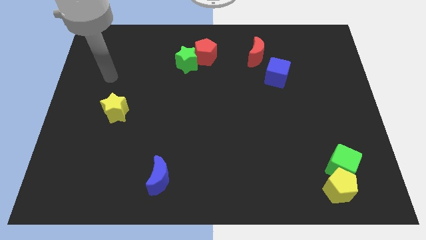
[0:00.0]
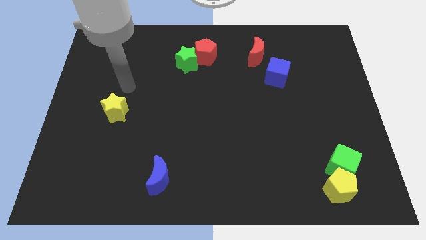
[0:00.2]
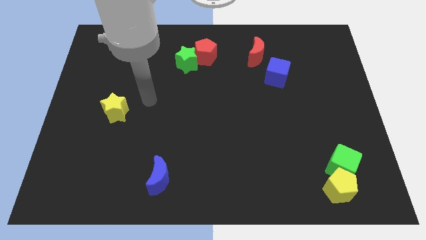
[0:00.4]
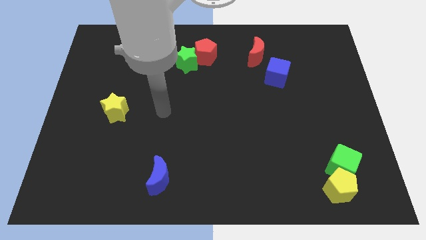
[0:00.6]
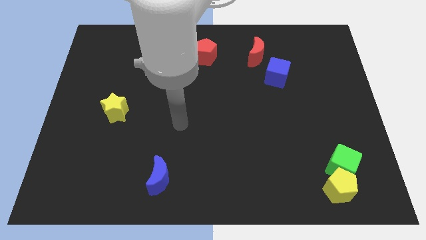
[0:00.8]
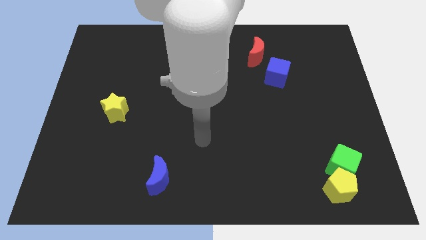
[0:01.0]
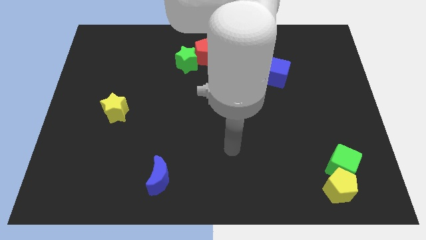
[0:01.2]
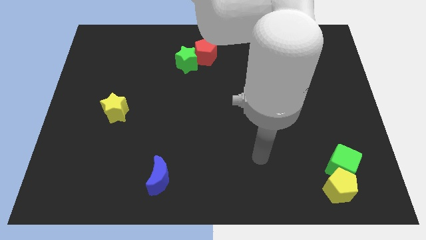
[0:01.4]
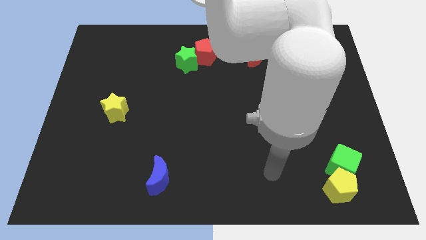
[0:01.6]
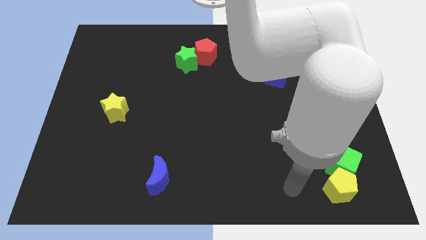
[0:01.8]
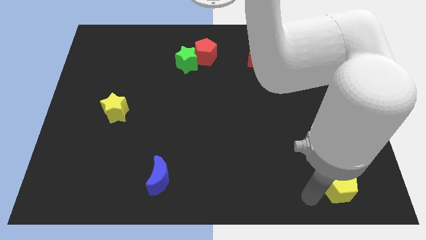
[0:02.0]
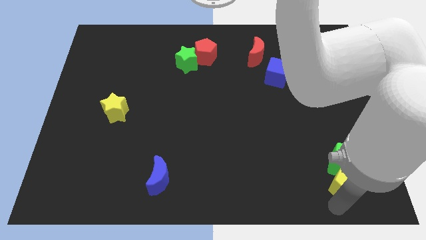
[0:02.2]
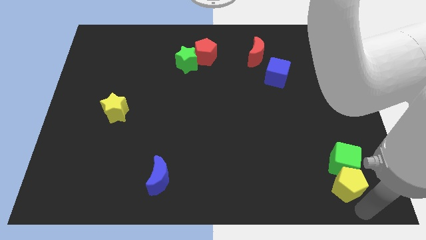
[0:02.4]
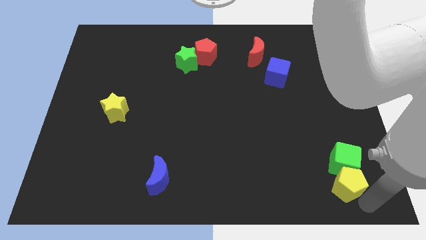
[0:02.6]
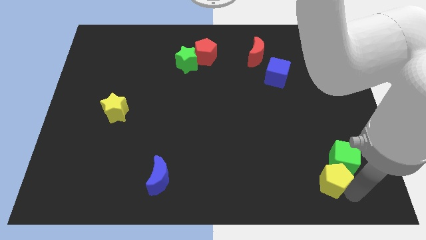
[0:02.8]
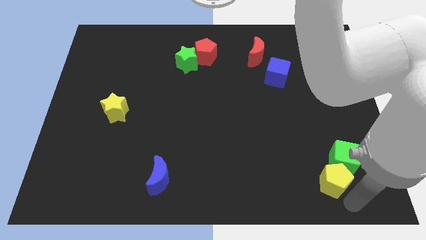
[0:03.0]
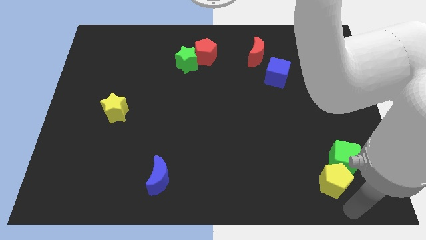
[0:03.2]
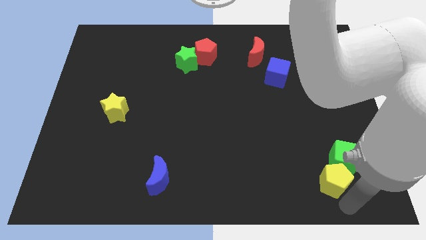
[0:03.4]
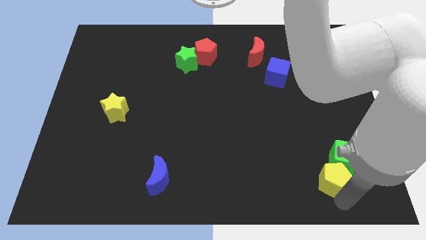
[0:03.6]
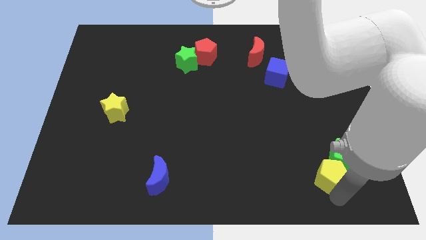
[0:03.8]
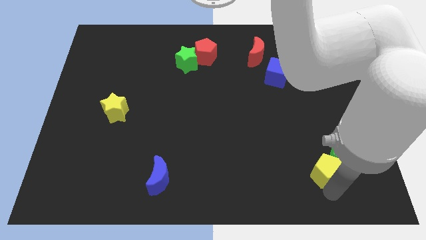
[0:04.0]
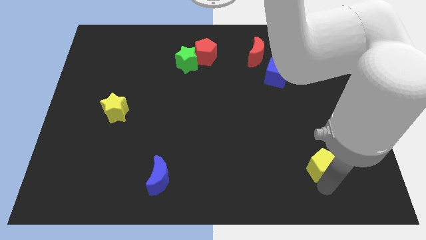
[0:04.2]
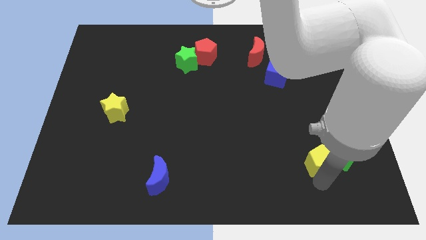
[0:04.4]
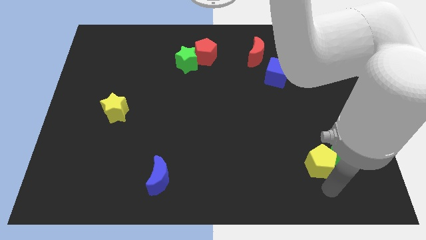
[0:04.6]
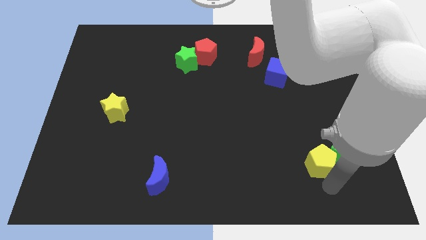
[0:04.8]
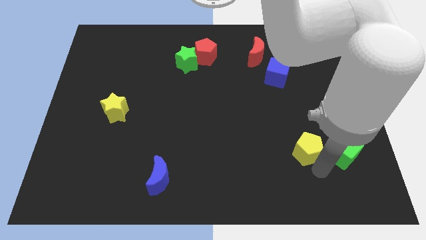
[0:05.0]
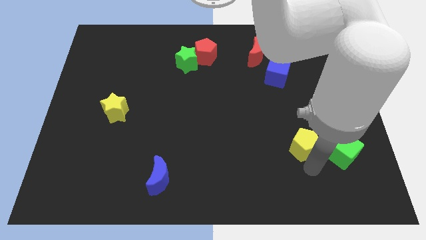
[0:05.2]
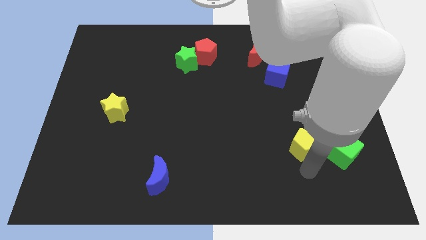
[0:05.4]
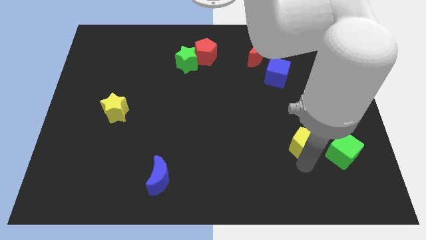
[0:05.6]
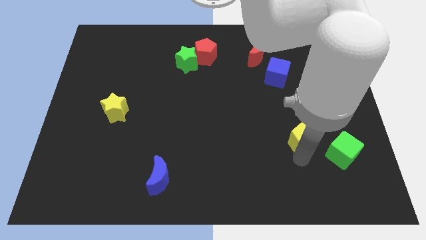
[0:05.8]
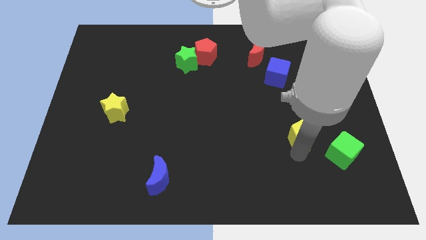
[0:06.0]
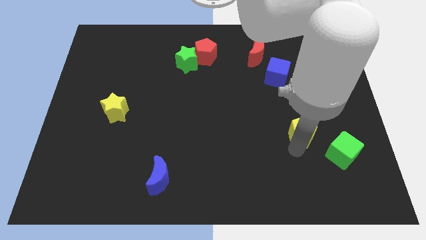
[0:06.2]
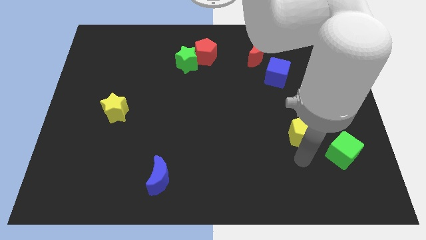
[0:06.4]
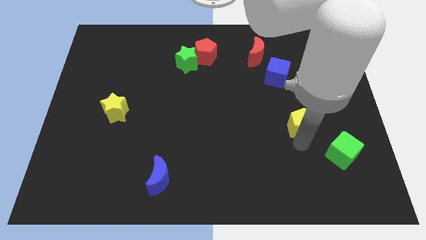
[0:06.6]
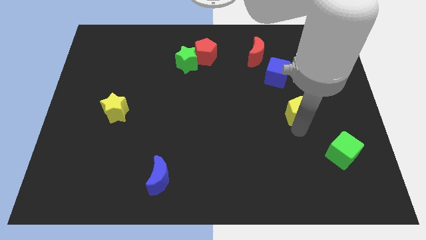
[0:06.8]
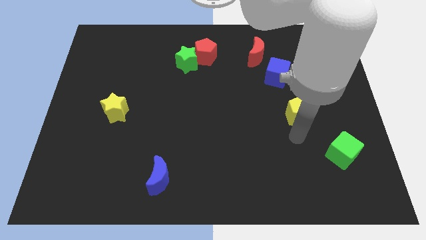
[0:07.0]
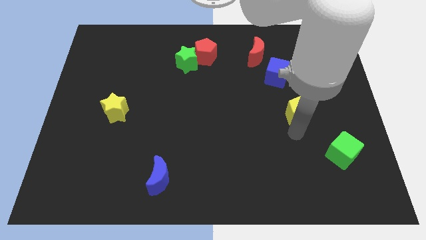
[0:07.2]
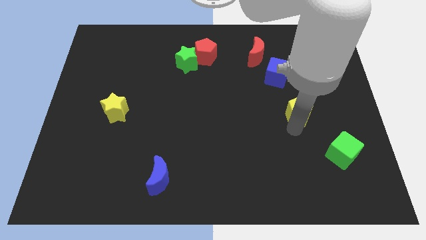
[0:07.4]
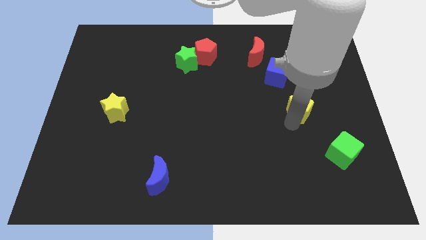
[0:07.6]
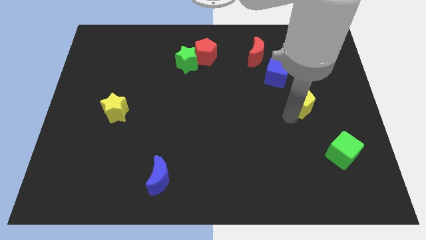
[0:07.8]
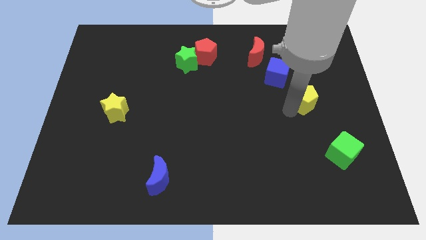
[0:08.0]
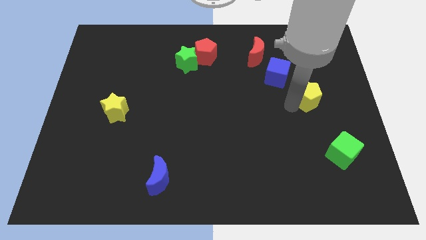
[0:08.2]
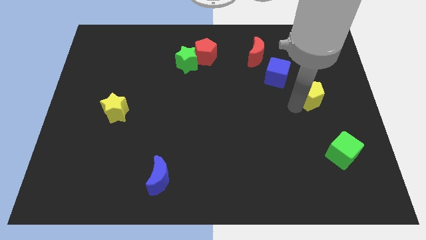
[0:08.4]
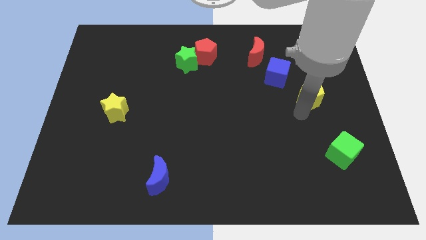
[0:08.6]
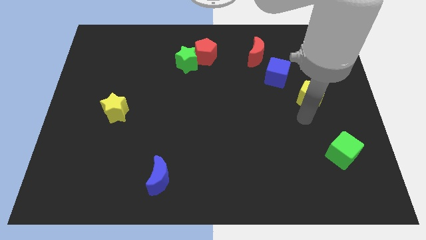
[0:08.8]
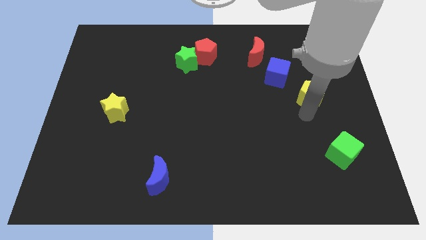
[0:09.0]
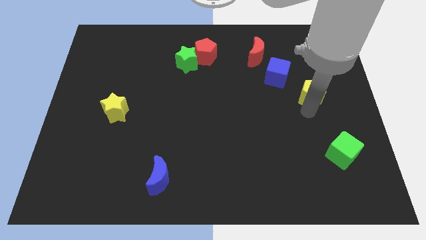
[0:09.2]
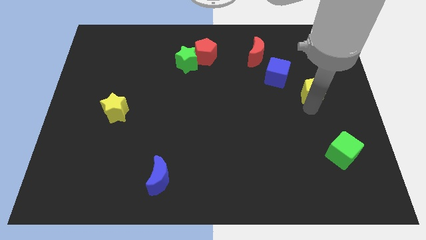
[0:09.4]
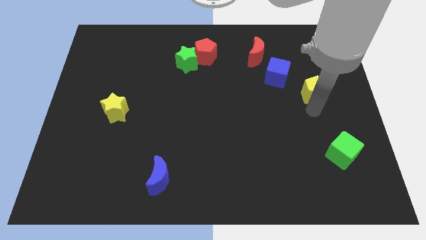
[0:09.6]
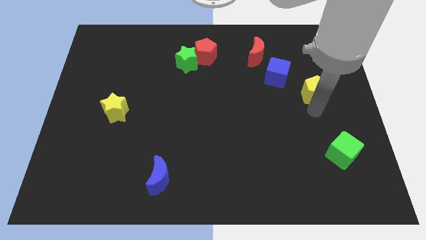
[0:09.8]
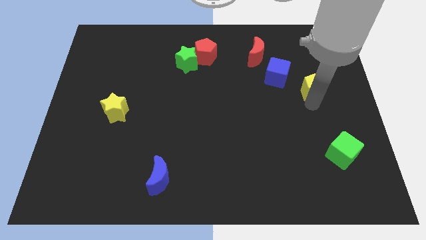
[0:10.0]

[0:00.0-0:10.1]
slide the yellow pentagon right of the blue cube

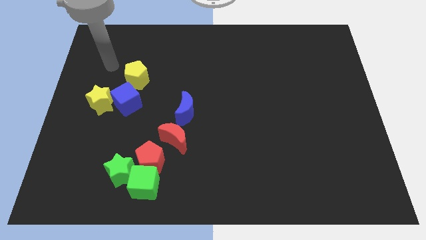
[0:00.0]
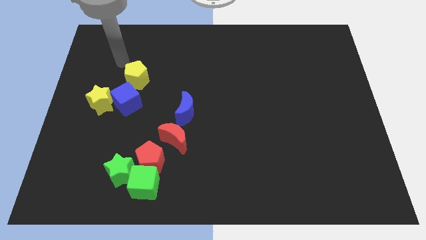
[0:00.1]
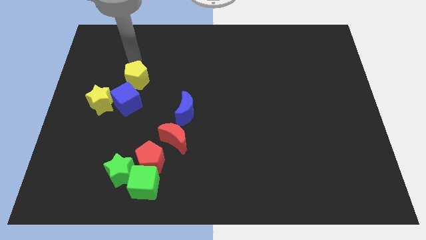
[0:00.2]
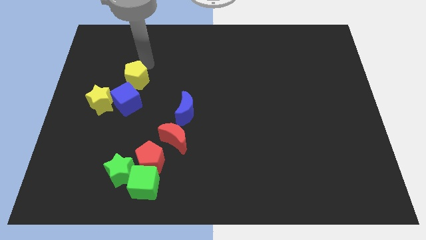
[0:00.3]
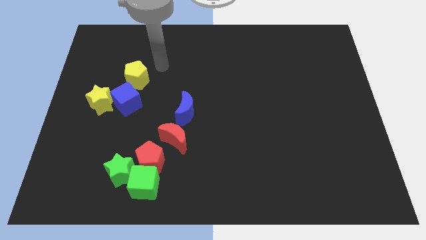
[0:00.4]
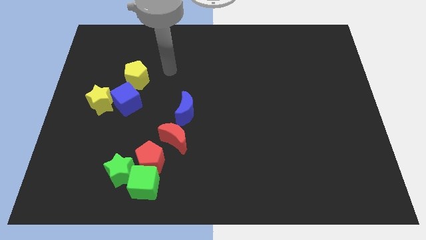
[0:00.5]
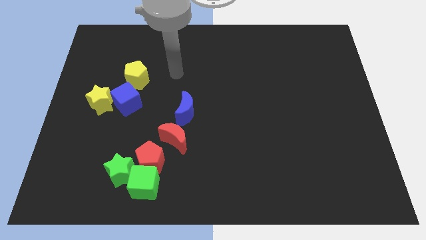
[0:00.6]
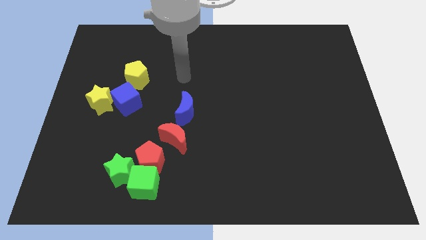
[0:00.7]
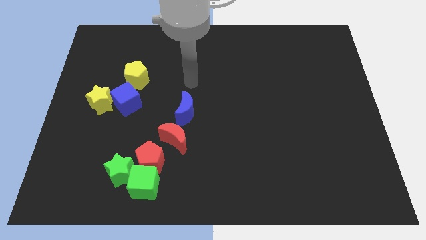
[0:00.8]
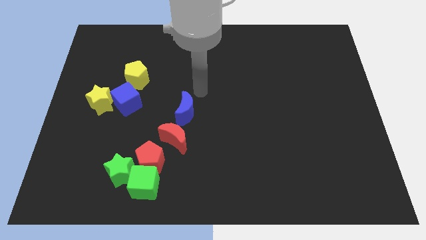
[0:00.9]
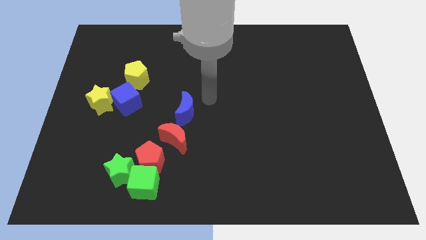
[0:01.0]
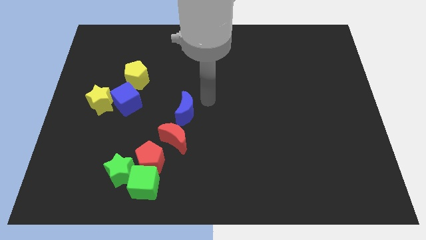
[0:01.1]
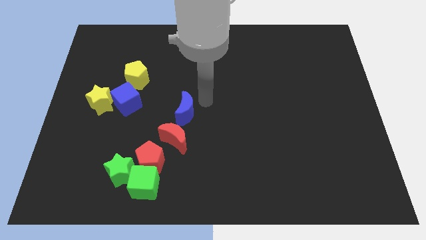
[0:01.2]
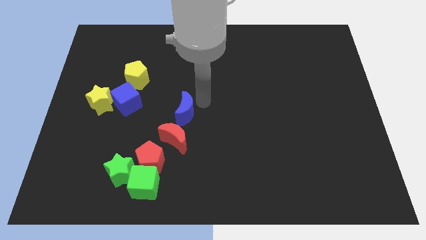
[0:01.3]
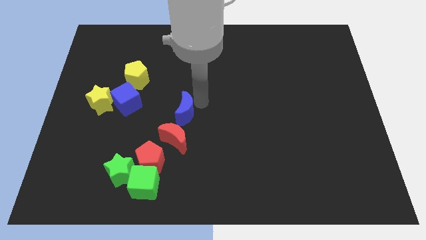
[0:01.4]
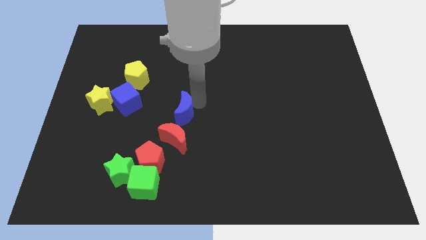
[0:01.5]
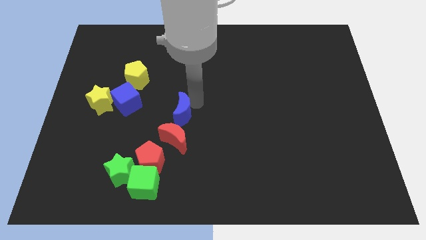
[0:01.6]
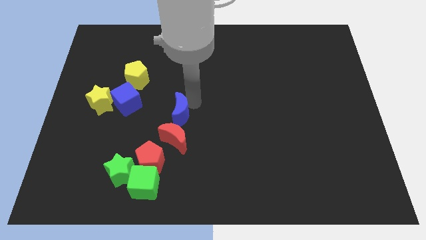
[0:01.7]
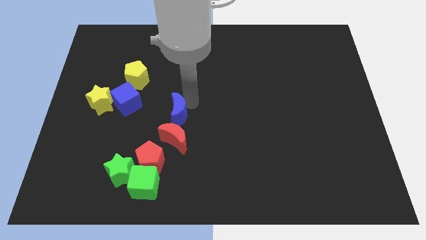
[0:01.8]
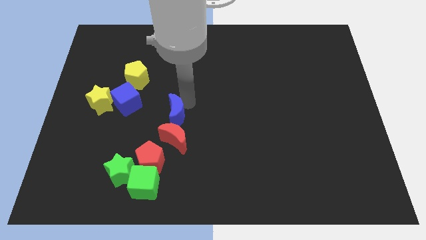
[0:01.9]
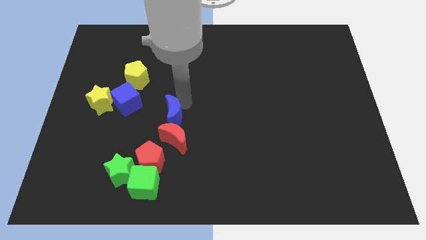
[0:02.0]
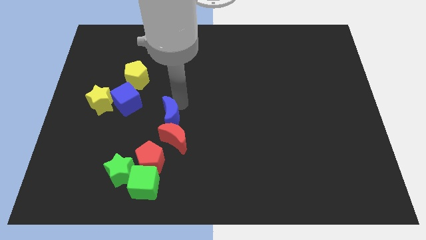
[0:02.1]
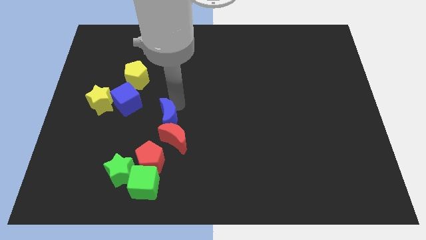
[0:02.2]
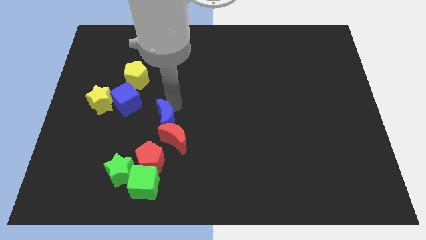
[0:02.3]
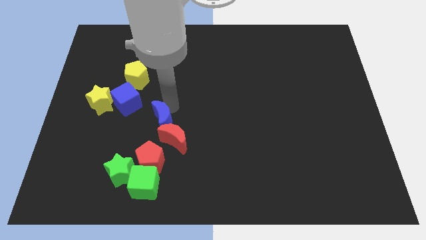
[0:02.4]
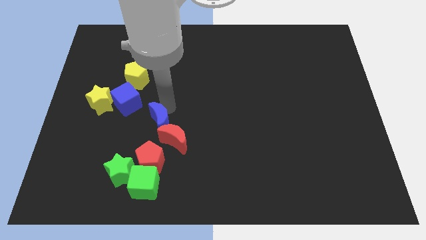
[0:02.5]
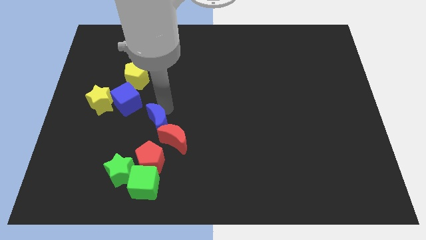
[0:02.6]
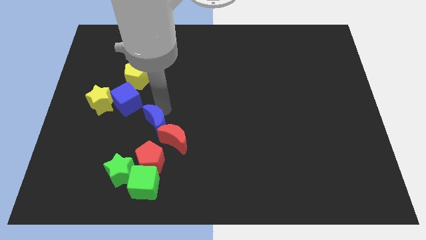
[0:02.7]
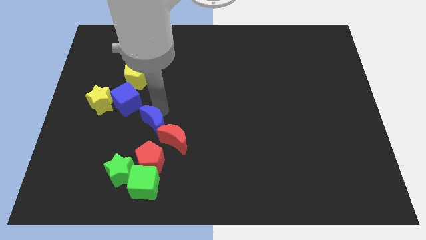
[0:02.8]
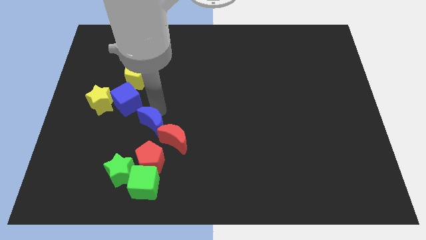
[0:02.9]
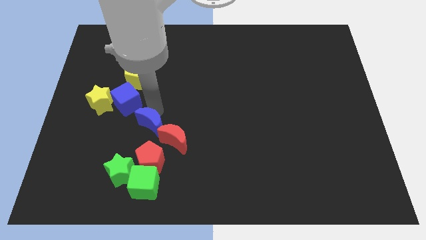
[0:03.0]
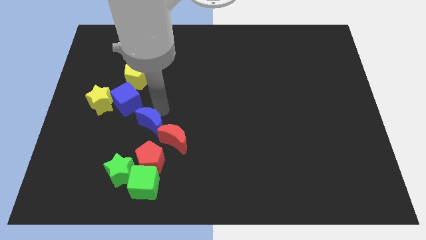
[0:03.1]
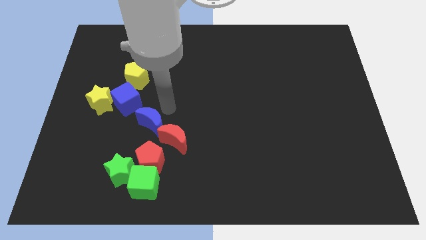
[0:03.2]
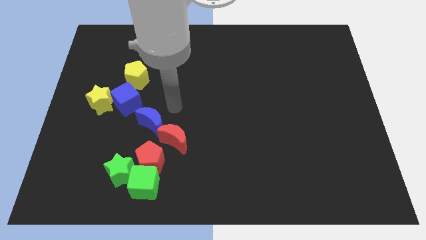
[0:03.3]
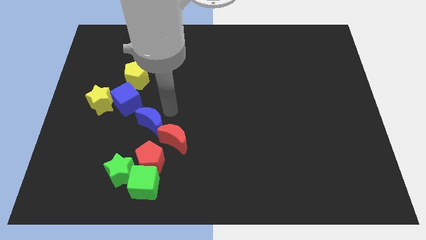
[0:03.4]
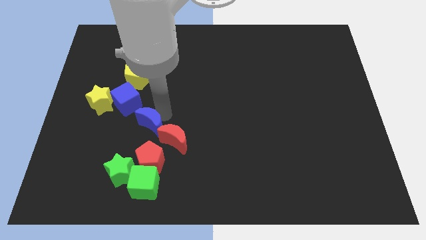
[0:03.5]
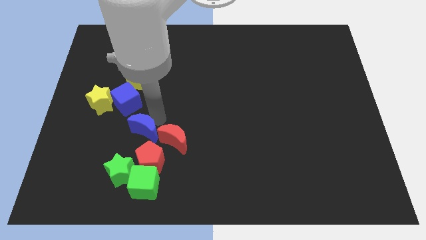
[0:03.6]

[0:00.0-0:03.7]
put the blue moon to the top left side of the red pentagon
